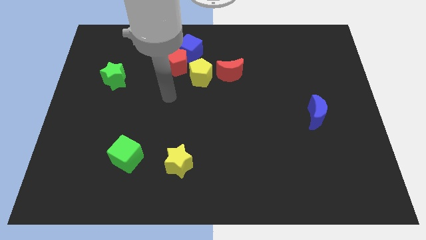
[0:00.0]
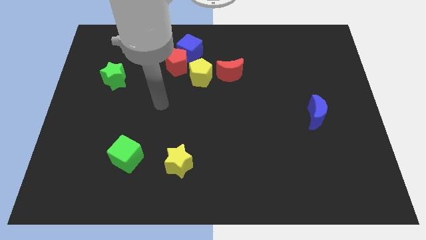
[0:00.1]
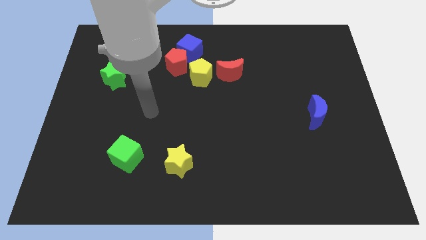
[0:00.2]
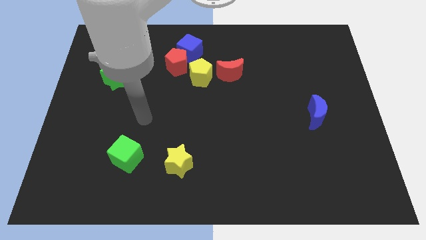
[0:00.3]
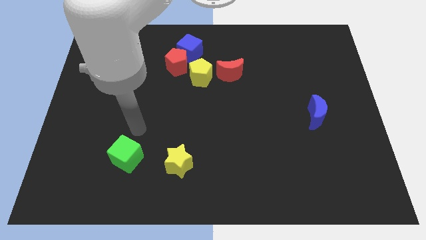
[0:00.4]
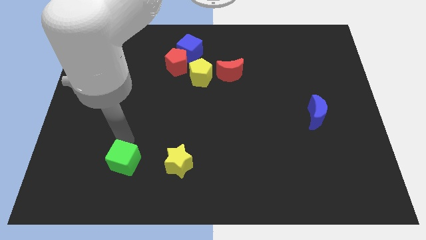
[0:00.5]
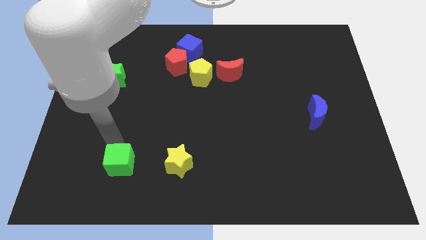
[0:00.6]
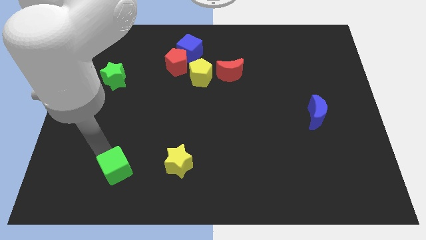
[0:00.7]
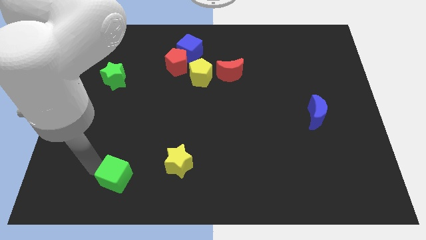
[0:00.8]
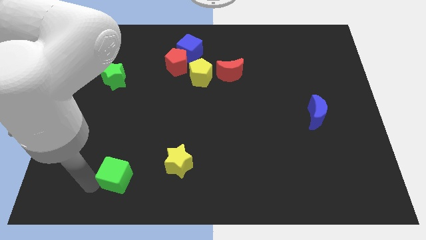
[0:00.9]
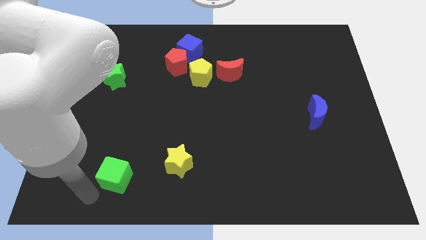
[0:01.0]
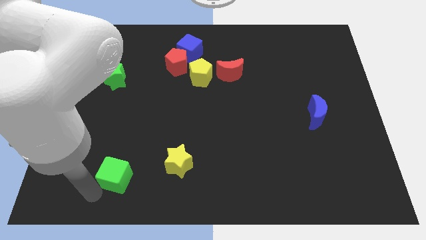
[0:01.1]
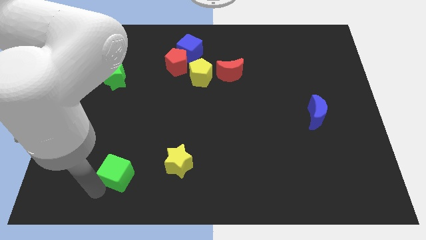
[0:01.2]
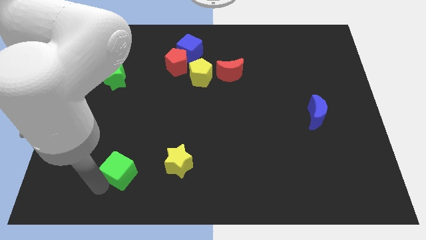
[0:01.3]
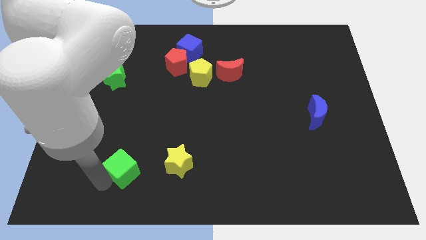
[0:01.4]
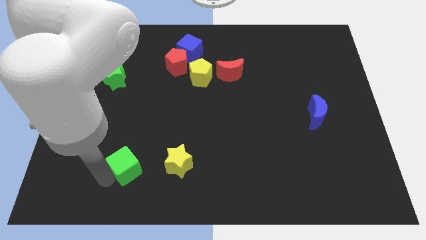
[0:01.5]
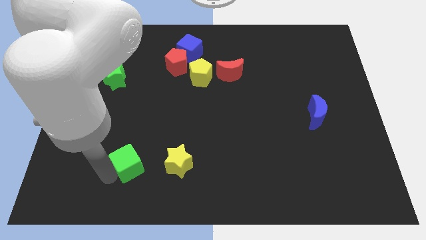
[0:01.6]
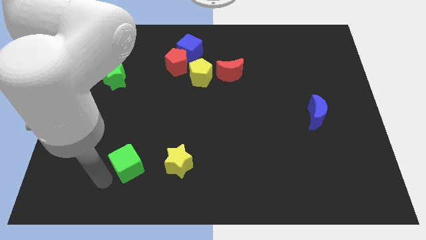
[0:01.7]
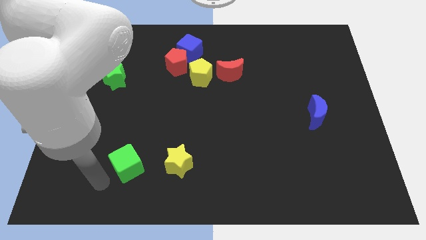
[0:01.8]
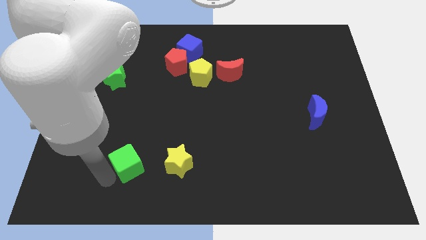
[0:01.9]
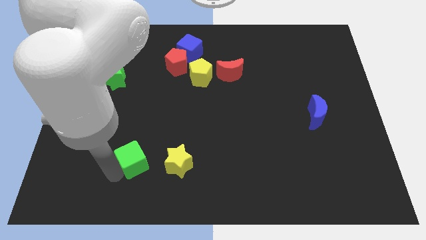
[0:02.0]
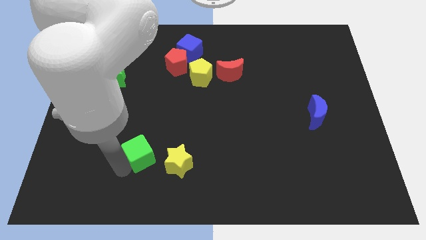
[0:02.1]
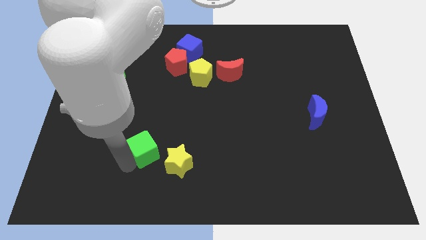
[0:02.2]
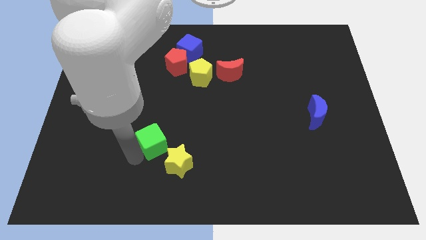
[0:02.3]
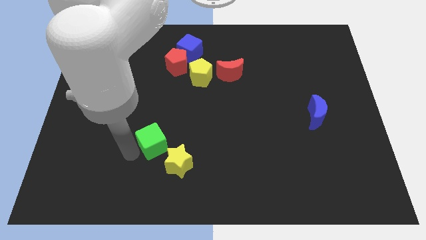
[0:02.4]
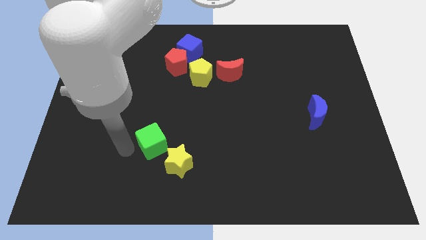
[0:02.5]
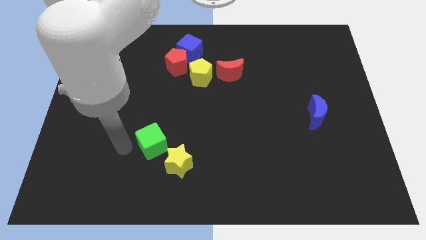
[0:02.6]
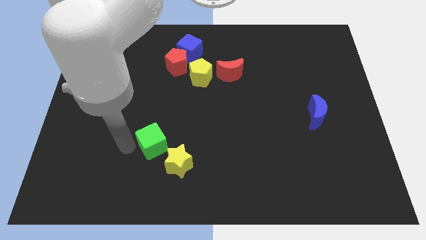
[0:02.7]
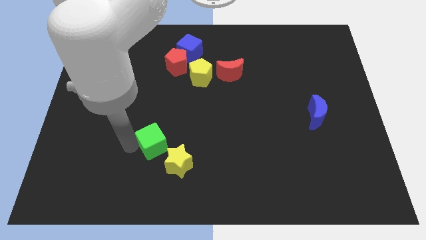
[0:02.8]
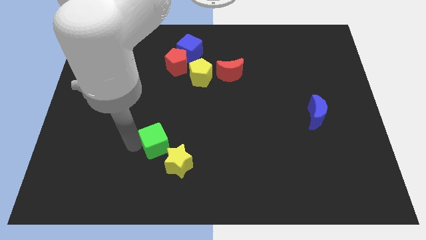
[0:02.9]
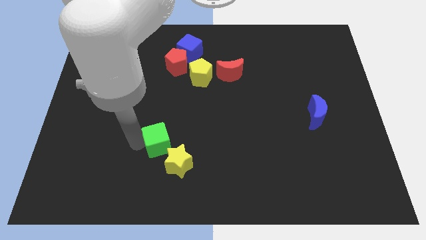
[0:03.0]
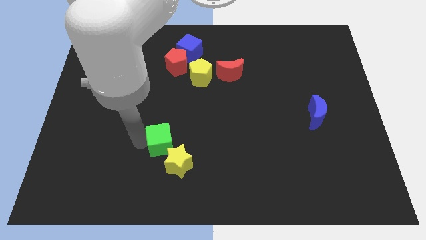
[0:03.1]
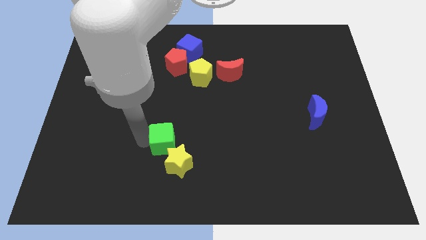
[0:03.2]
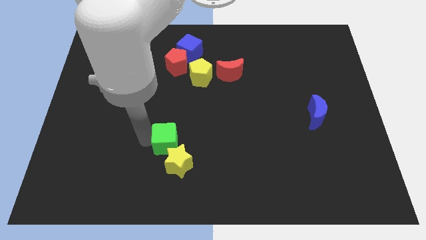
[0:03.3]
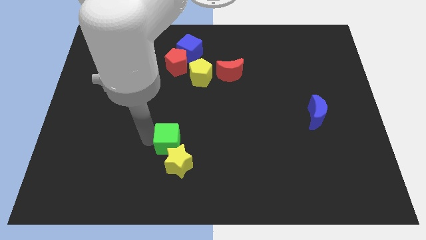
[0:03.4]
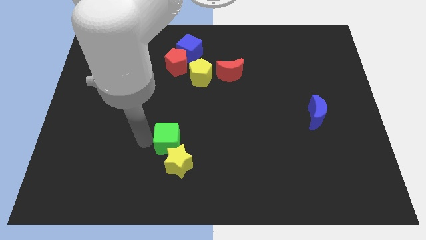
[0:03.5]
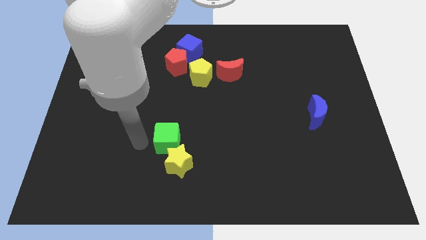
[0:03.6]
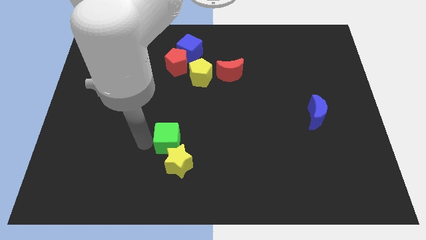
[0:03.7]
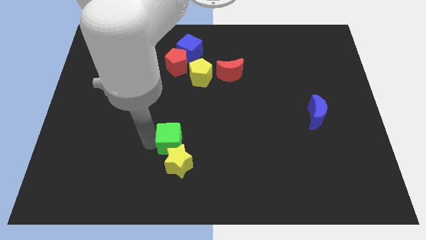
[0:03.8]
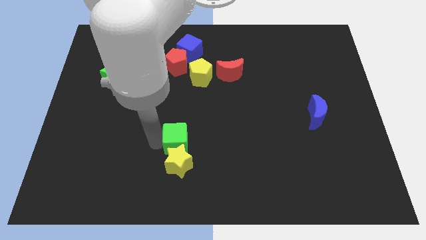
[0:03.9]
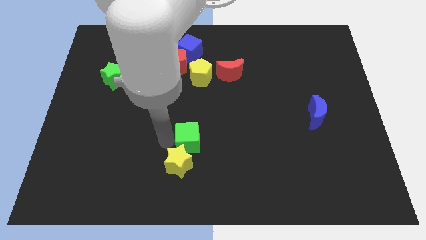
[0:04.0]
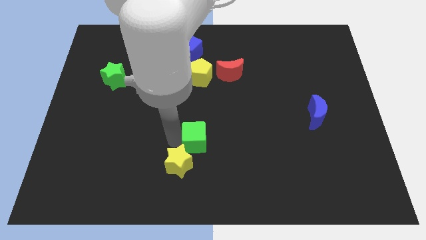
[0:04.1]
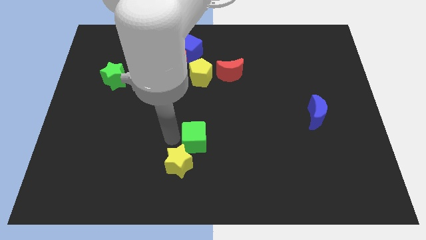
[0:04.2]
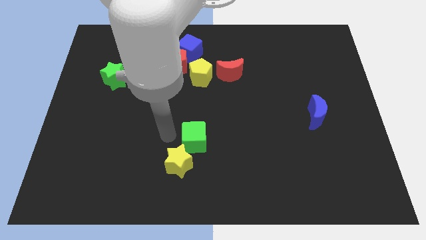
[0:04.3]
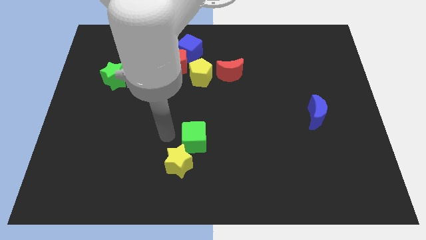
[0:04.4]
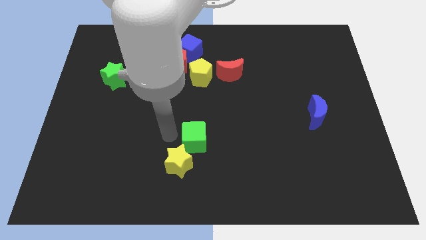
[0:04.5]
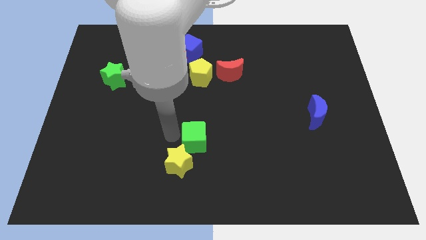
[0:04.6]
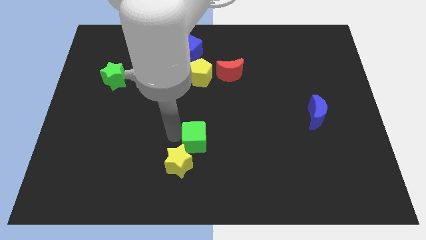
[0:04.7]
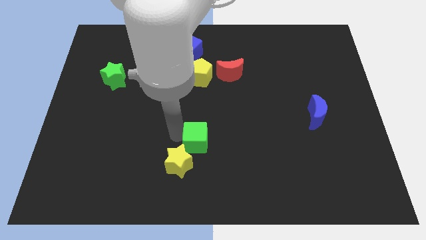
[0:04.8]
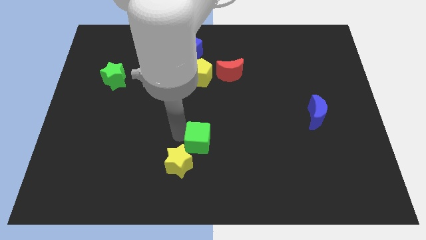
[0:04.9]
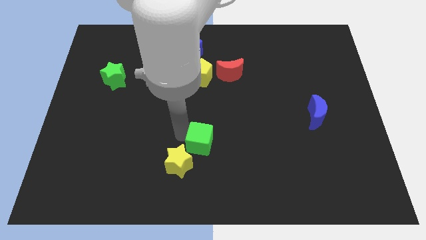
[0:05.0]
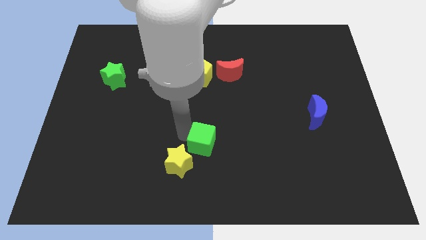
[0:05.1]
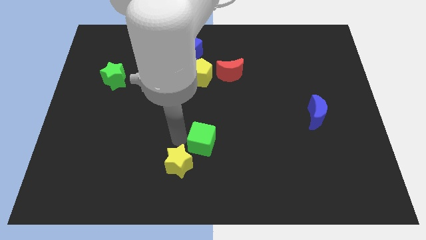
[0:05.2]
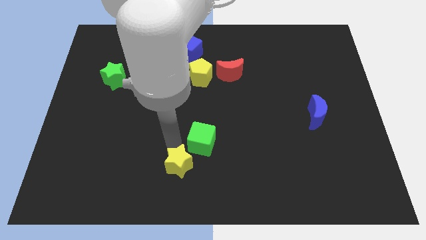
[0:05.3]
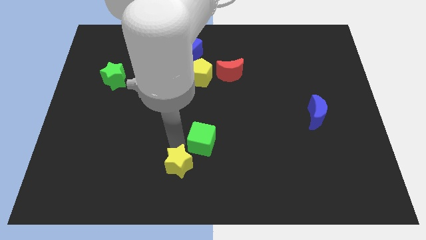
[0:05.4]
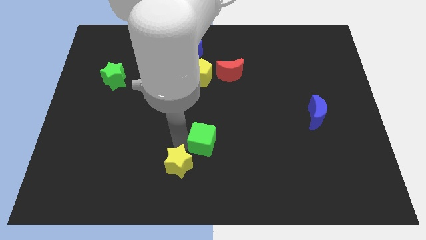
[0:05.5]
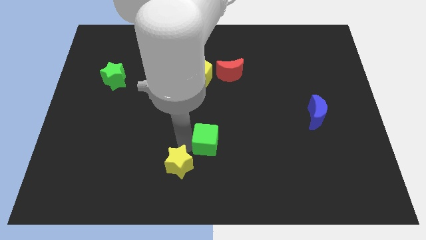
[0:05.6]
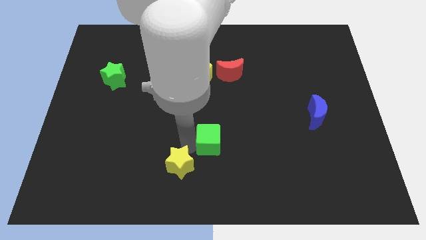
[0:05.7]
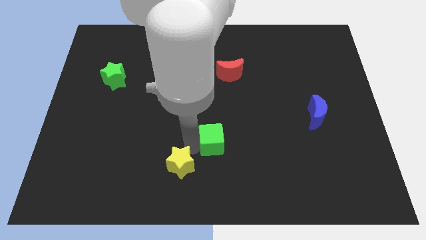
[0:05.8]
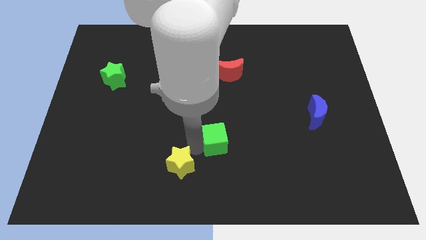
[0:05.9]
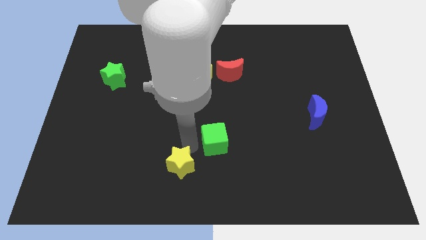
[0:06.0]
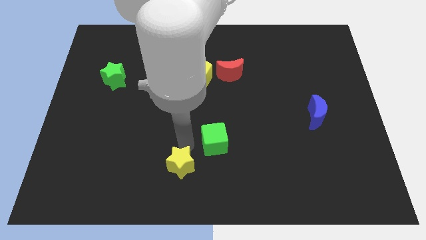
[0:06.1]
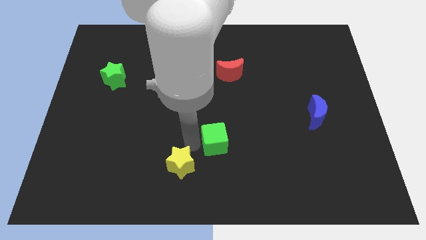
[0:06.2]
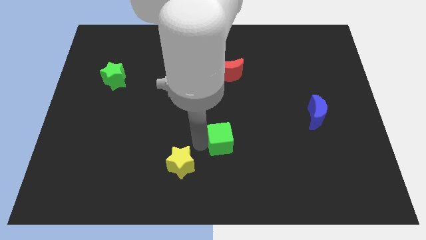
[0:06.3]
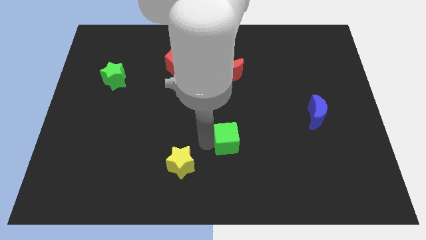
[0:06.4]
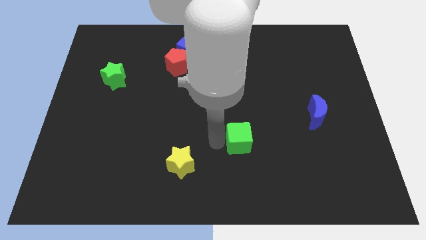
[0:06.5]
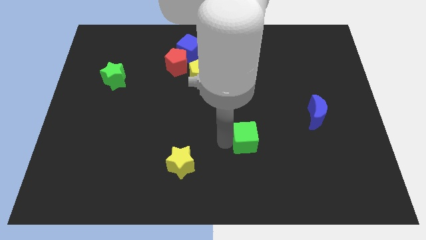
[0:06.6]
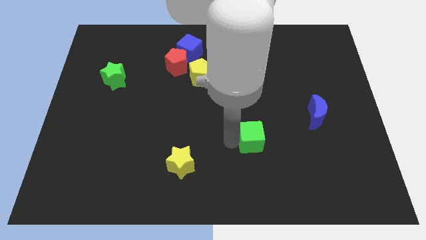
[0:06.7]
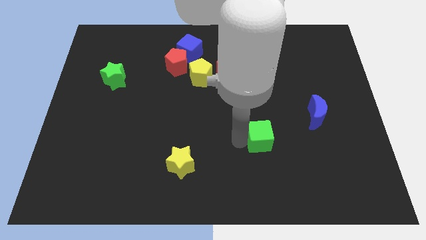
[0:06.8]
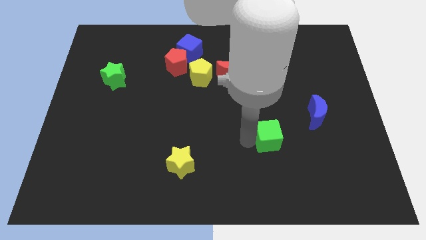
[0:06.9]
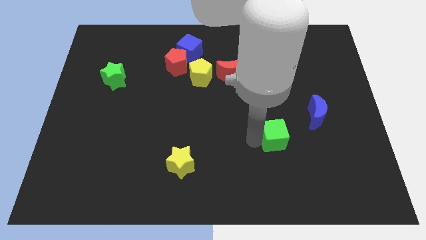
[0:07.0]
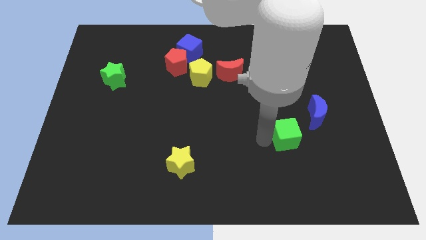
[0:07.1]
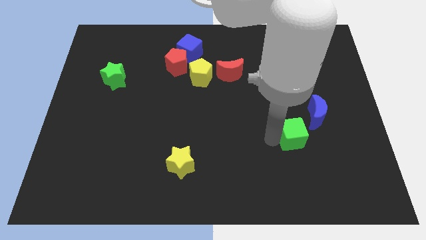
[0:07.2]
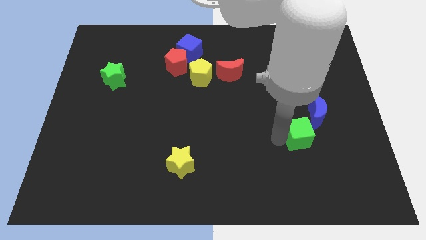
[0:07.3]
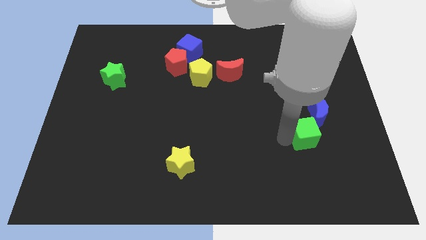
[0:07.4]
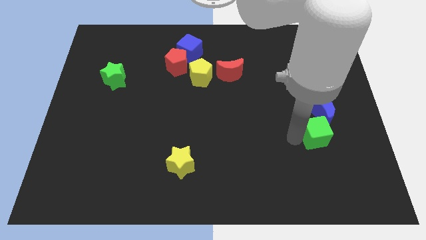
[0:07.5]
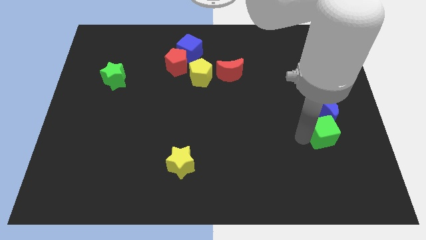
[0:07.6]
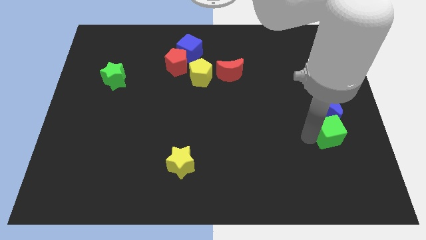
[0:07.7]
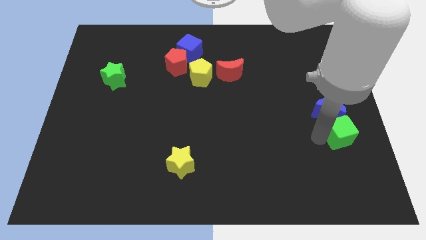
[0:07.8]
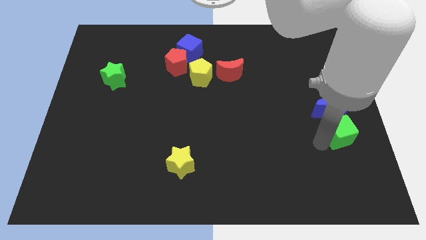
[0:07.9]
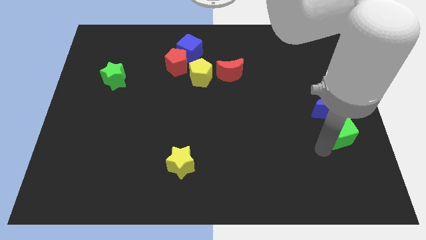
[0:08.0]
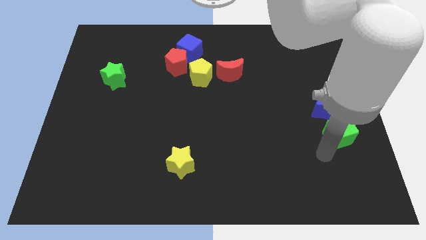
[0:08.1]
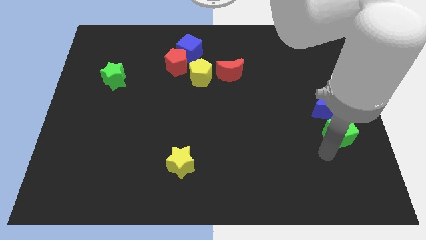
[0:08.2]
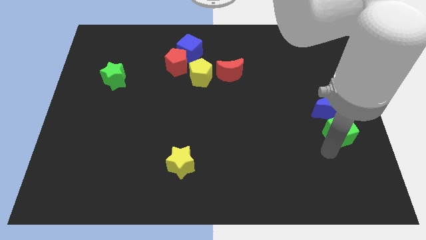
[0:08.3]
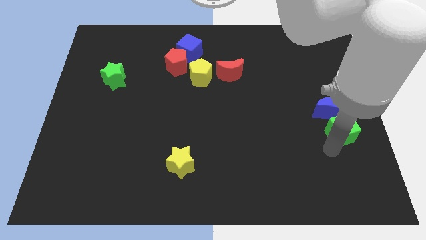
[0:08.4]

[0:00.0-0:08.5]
put the green cube to the right side of the board
